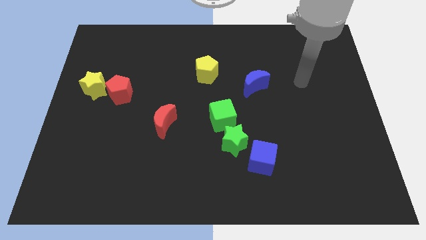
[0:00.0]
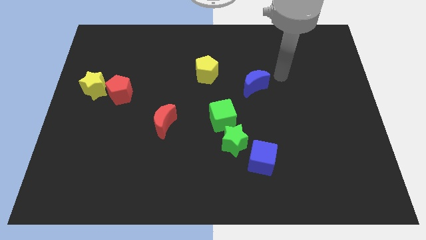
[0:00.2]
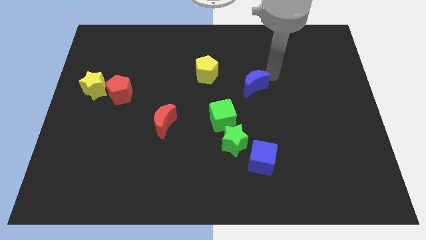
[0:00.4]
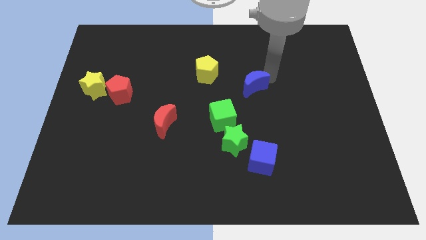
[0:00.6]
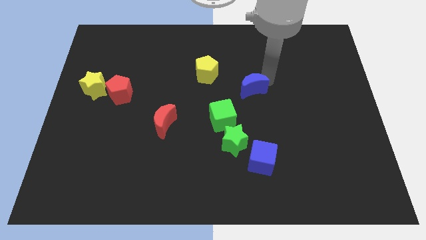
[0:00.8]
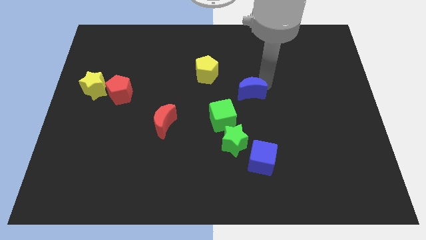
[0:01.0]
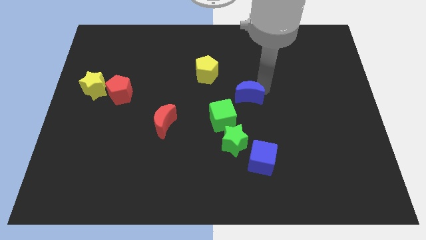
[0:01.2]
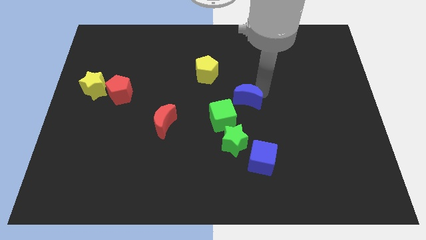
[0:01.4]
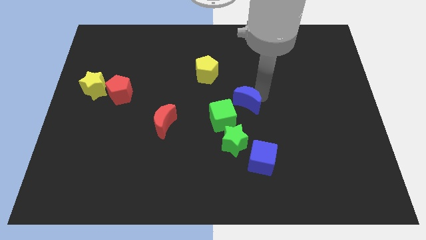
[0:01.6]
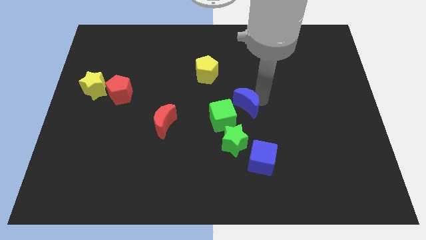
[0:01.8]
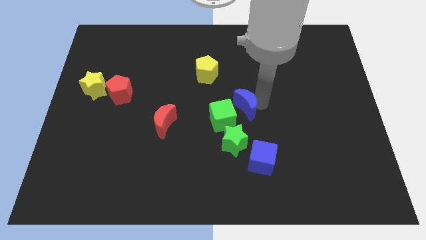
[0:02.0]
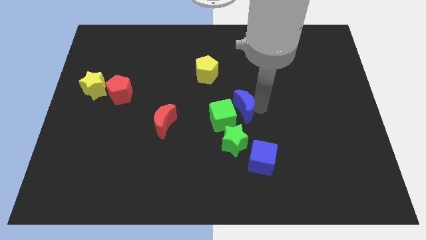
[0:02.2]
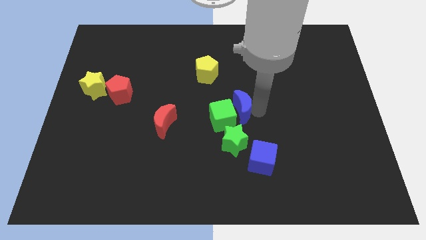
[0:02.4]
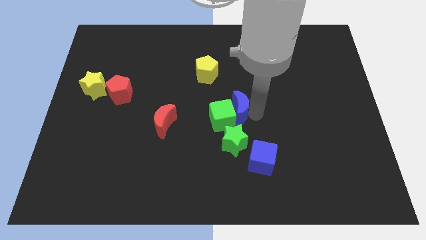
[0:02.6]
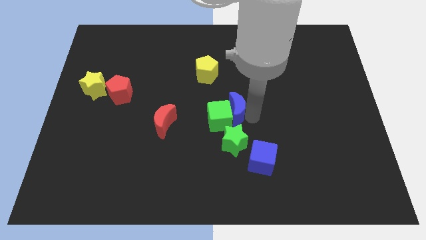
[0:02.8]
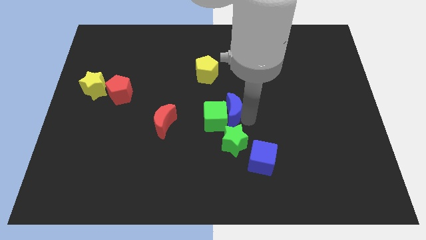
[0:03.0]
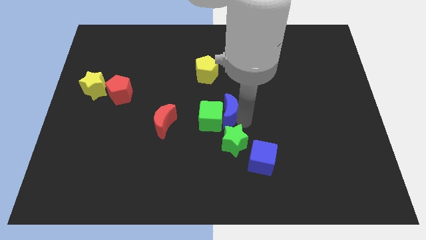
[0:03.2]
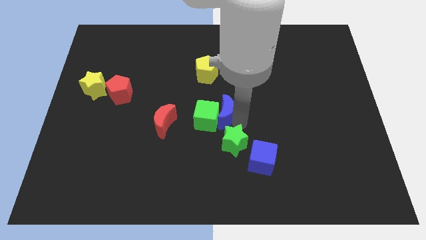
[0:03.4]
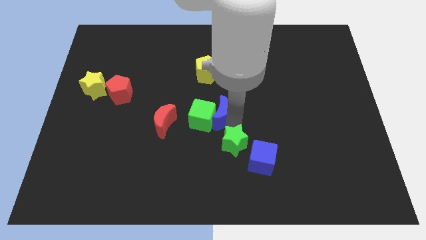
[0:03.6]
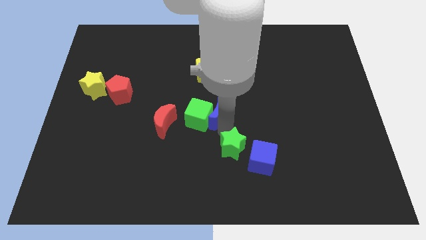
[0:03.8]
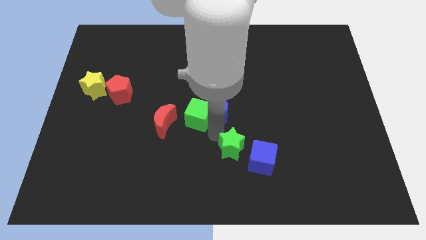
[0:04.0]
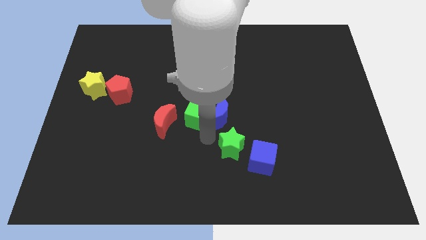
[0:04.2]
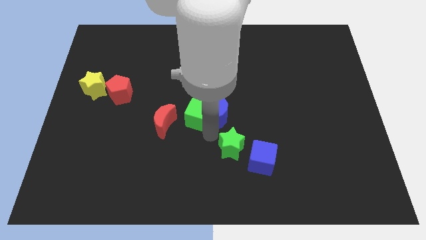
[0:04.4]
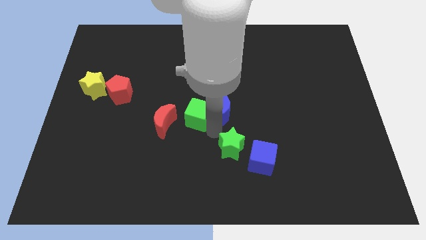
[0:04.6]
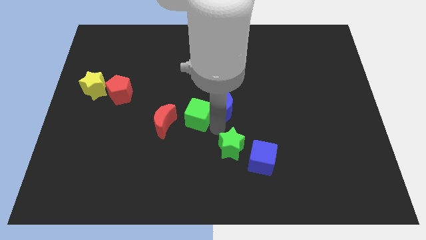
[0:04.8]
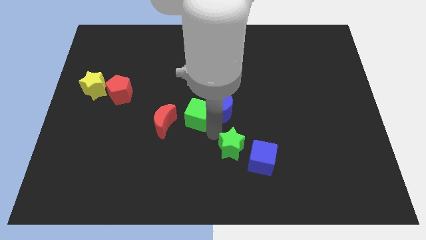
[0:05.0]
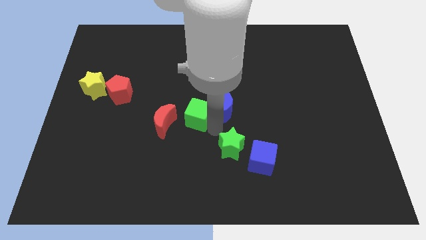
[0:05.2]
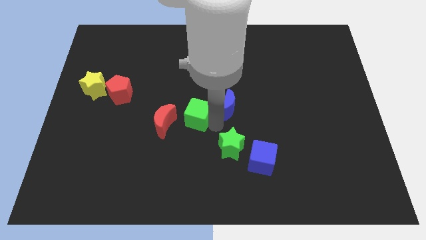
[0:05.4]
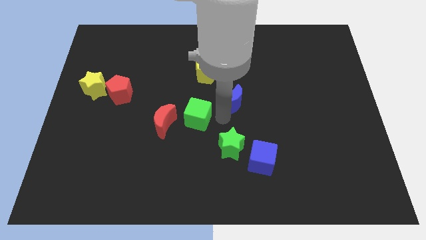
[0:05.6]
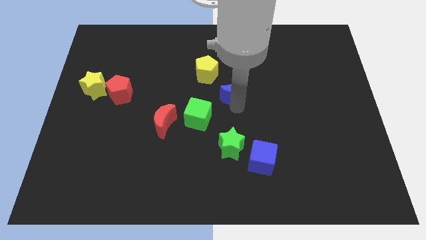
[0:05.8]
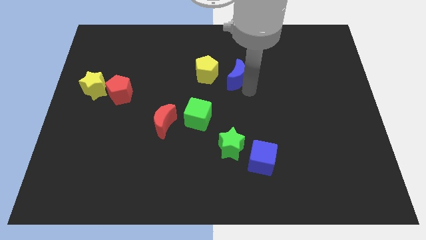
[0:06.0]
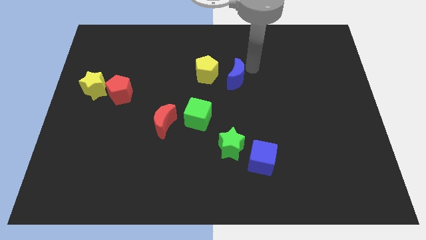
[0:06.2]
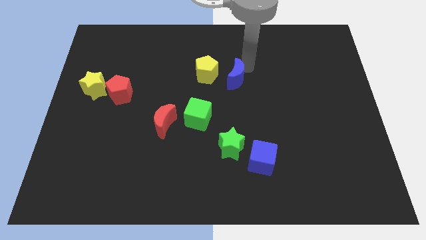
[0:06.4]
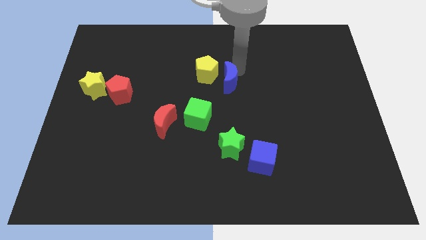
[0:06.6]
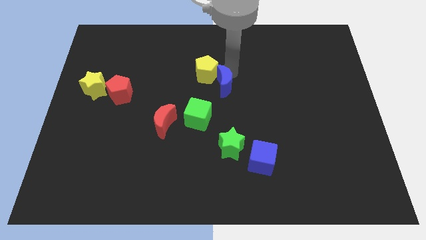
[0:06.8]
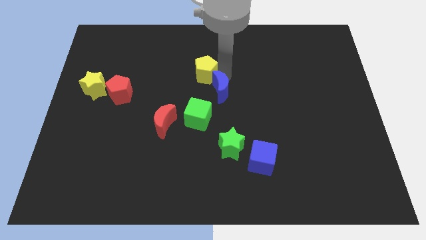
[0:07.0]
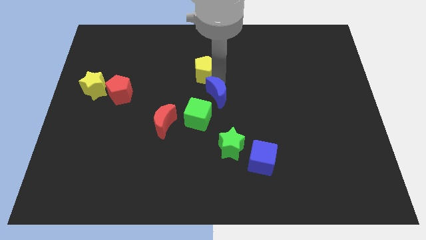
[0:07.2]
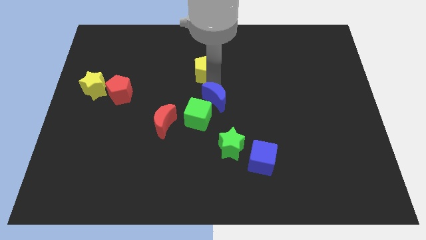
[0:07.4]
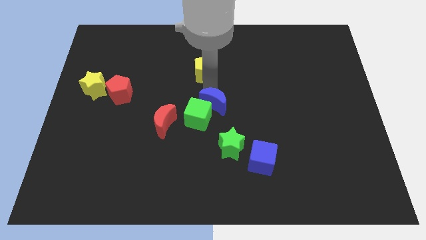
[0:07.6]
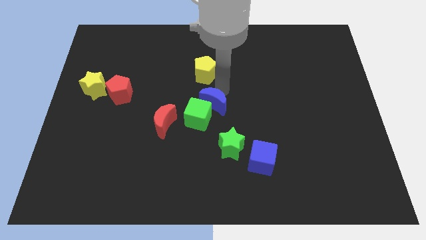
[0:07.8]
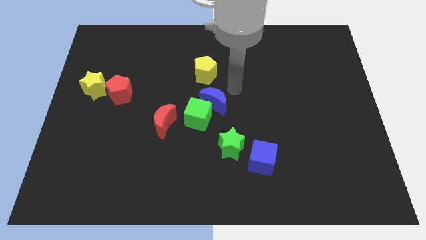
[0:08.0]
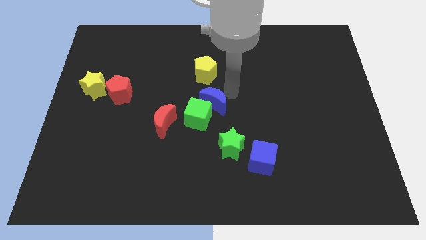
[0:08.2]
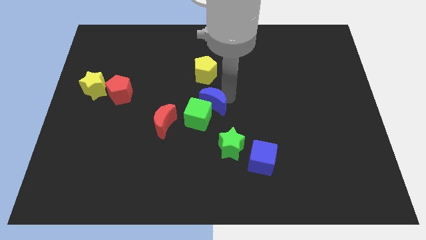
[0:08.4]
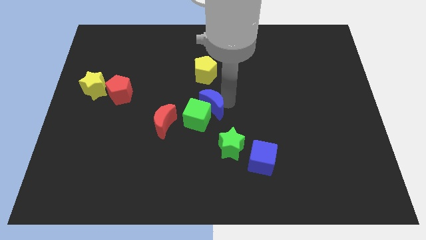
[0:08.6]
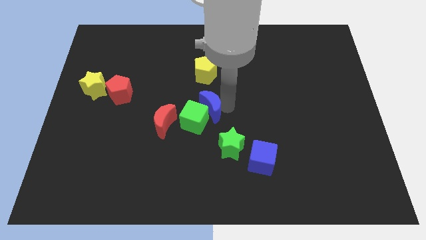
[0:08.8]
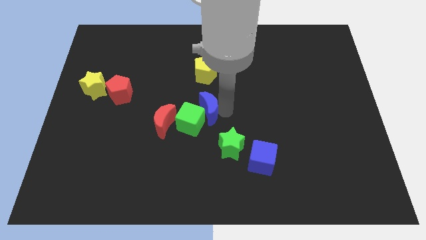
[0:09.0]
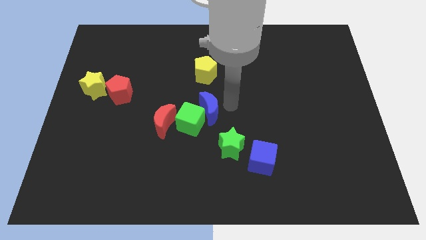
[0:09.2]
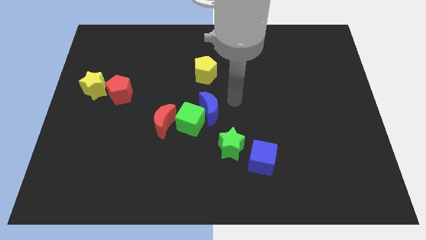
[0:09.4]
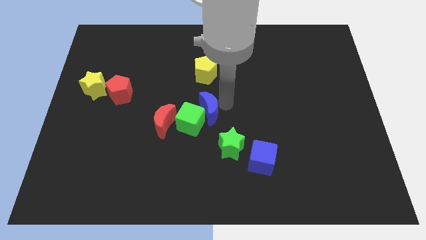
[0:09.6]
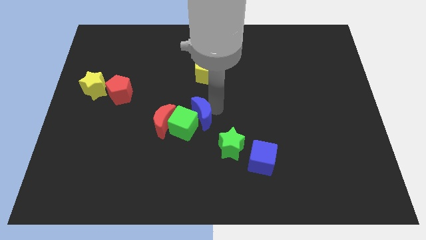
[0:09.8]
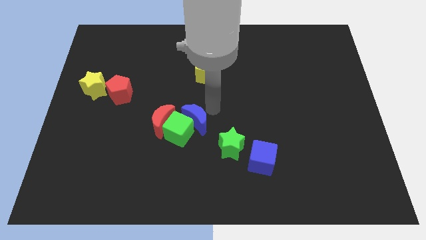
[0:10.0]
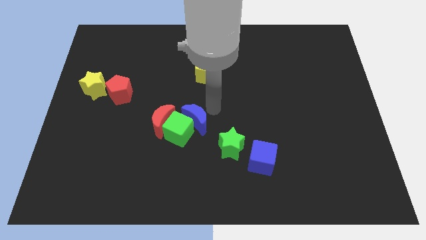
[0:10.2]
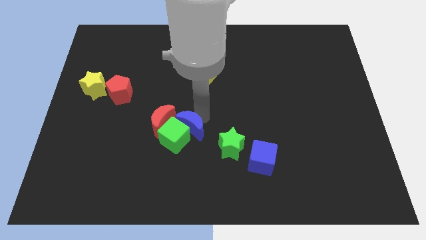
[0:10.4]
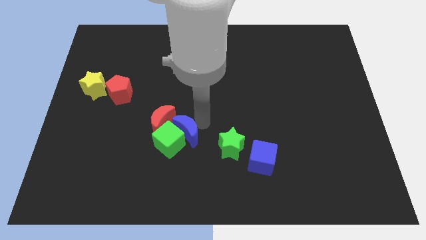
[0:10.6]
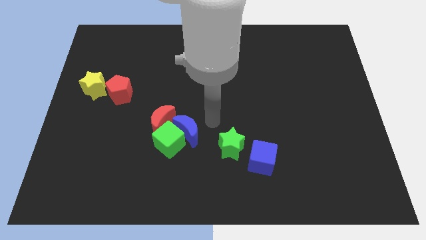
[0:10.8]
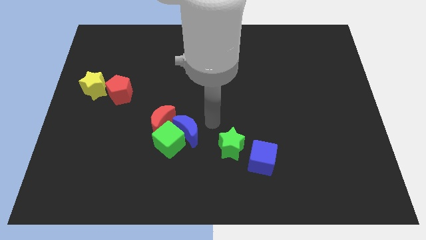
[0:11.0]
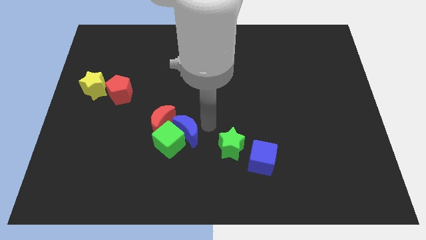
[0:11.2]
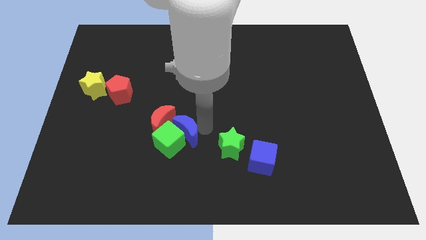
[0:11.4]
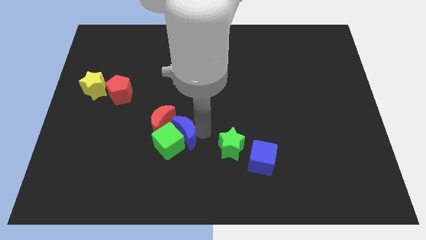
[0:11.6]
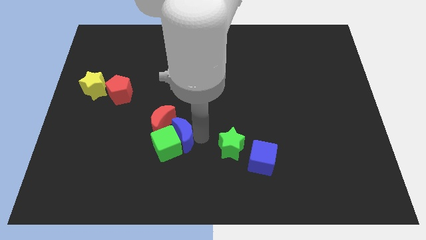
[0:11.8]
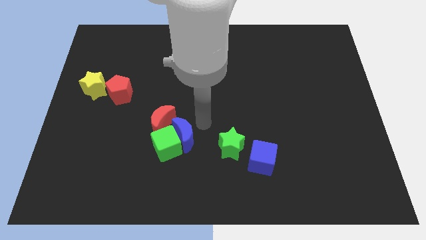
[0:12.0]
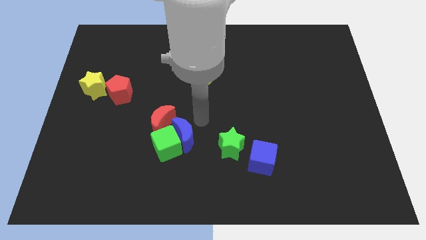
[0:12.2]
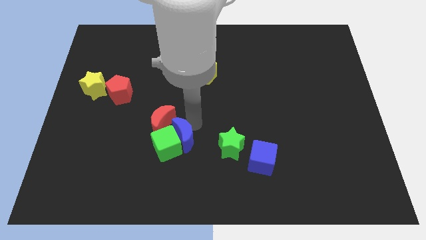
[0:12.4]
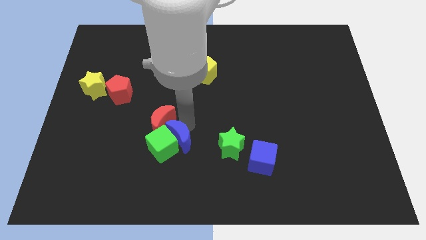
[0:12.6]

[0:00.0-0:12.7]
move the blue moon to the bottom side of the red moon
